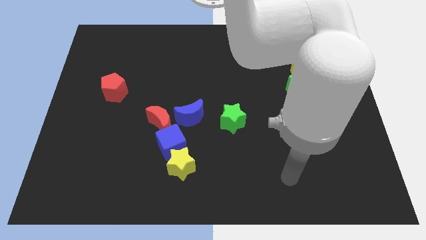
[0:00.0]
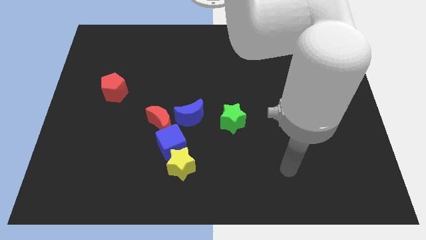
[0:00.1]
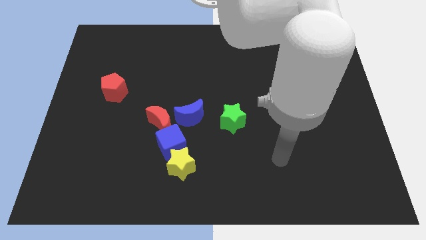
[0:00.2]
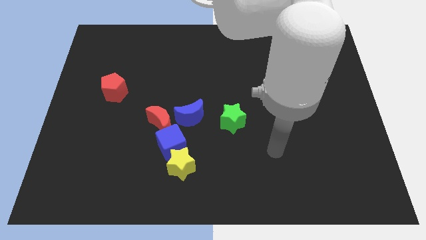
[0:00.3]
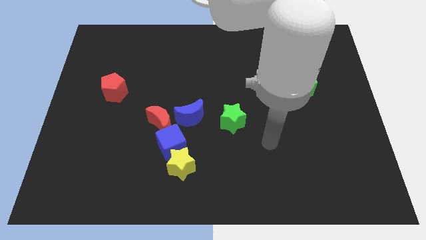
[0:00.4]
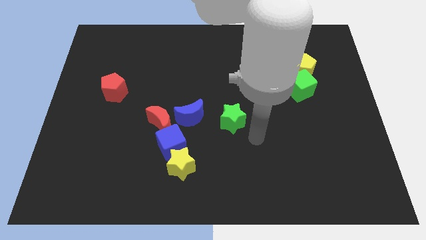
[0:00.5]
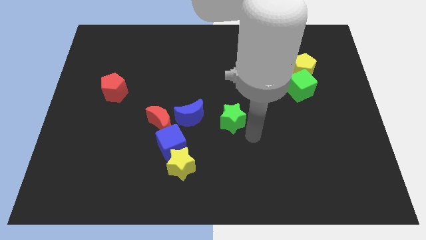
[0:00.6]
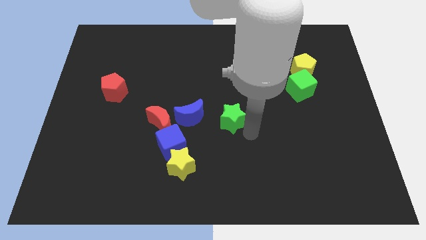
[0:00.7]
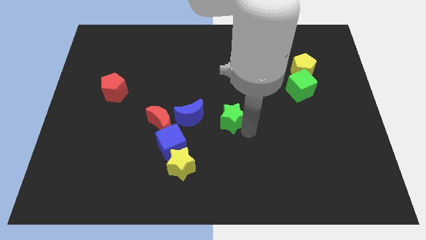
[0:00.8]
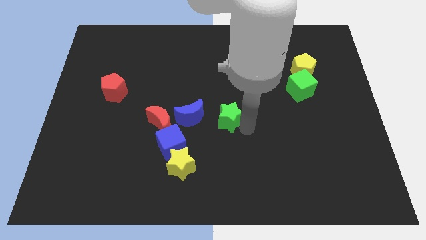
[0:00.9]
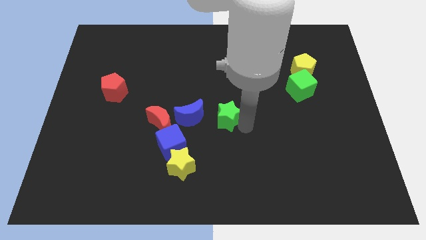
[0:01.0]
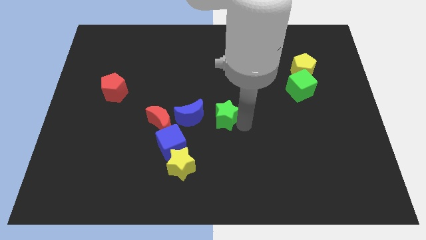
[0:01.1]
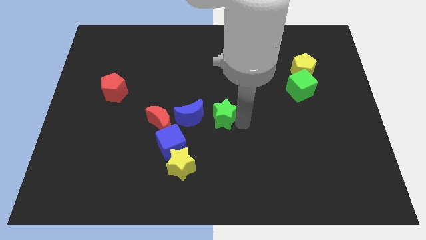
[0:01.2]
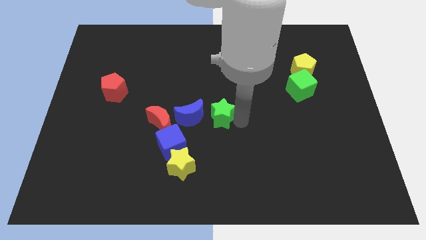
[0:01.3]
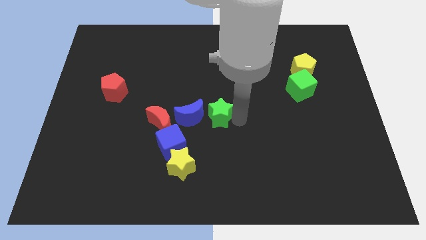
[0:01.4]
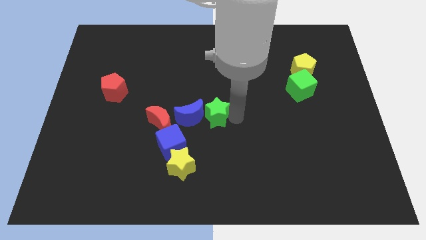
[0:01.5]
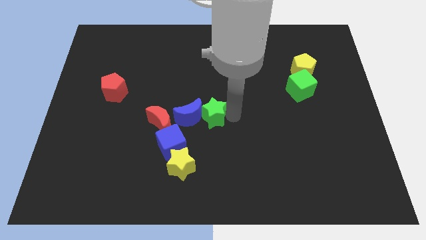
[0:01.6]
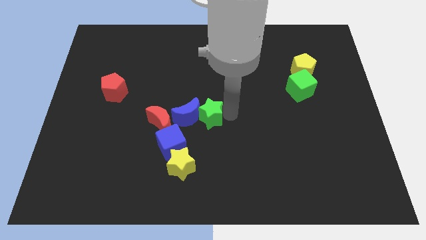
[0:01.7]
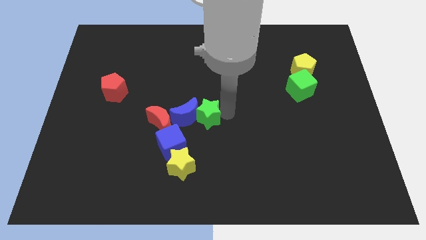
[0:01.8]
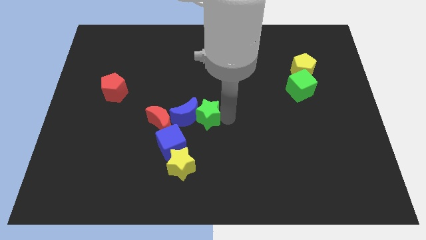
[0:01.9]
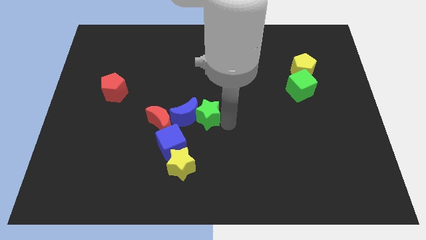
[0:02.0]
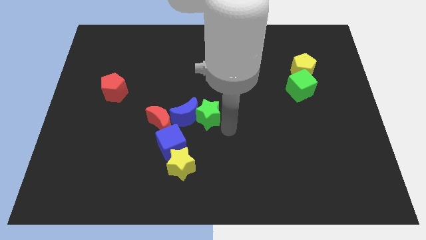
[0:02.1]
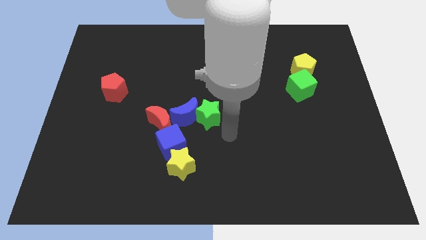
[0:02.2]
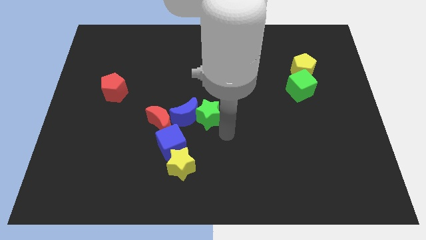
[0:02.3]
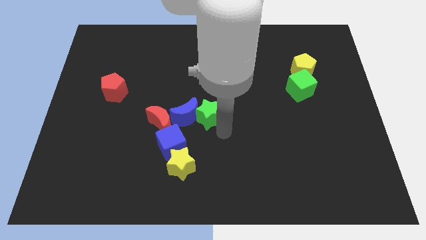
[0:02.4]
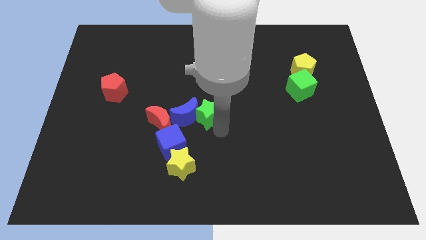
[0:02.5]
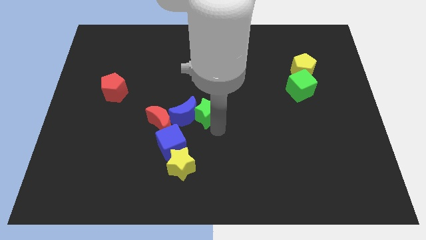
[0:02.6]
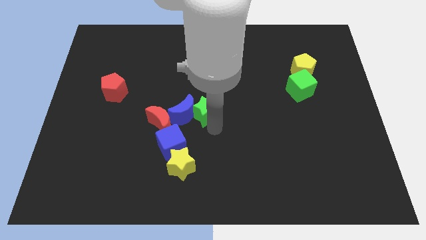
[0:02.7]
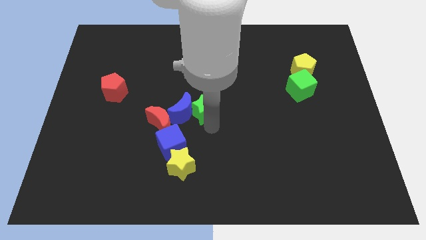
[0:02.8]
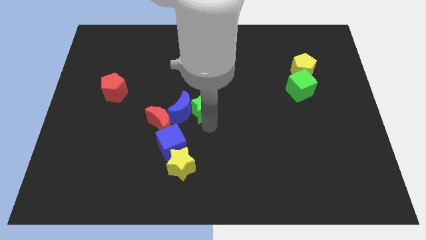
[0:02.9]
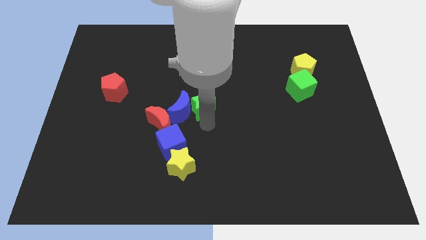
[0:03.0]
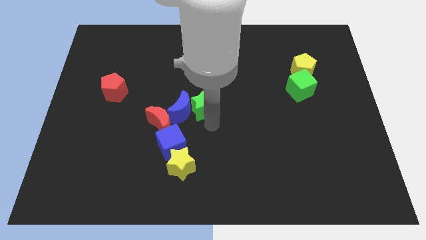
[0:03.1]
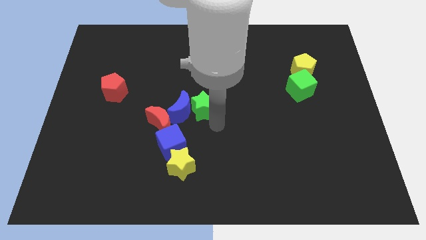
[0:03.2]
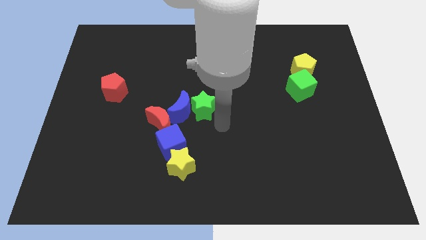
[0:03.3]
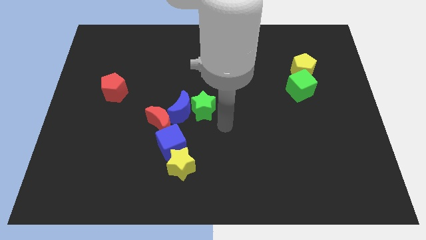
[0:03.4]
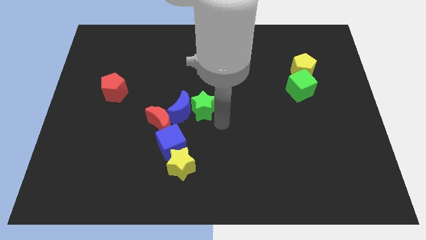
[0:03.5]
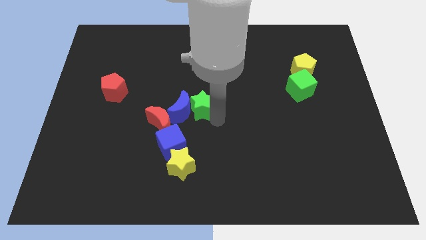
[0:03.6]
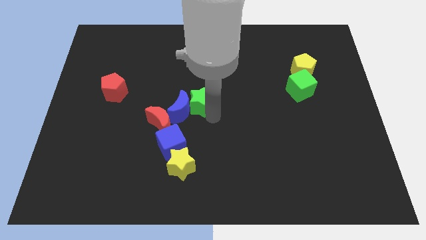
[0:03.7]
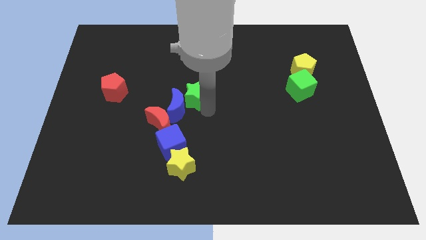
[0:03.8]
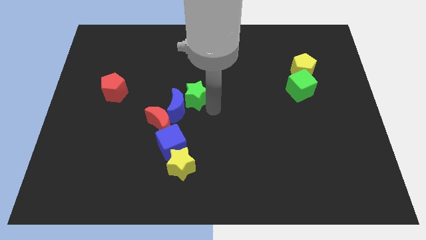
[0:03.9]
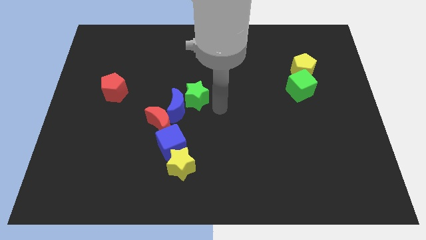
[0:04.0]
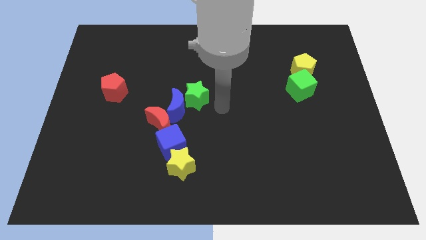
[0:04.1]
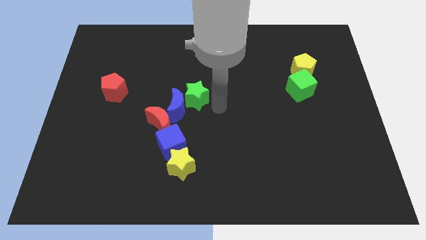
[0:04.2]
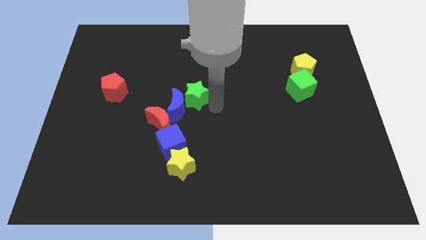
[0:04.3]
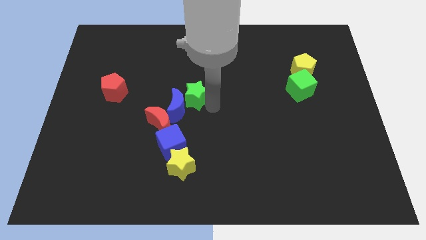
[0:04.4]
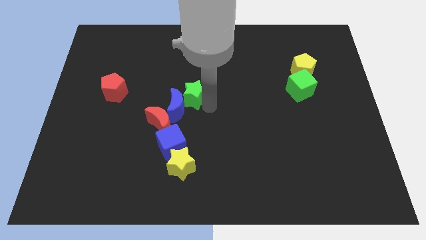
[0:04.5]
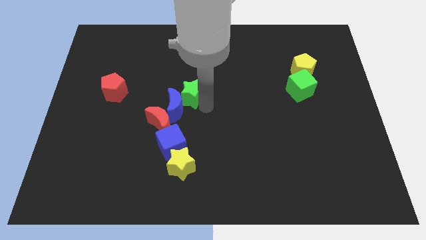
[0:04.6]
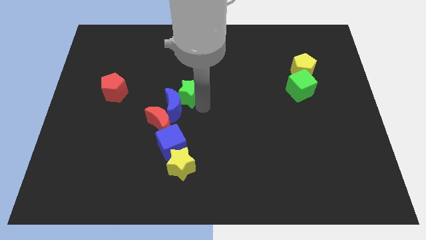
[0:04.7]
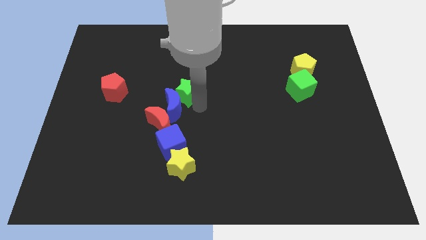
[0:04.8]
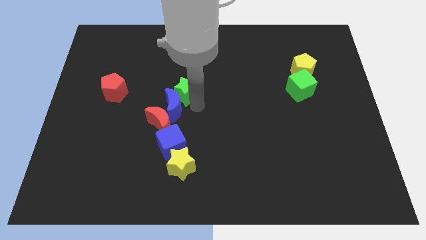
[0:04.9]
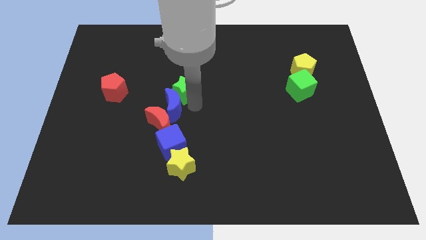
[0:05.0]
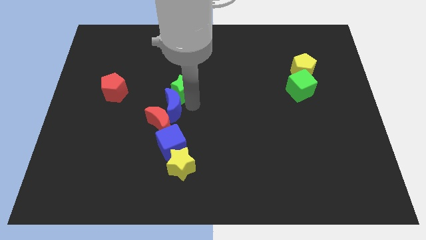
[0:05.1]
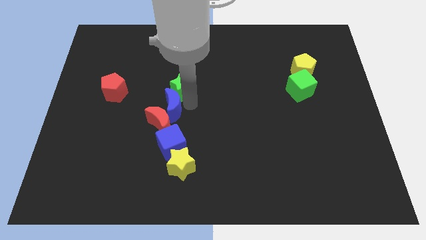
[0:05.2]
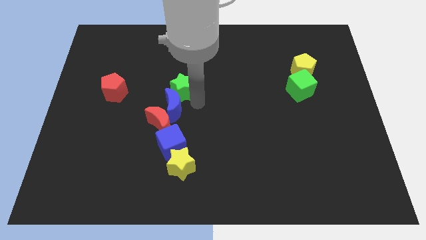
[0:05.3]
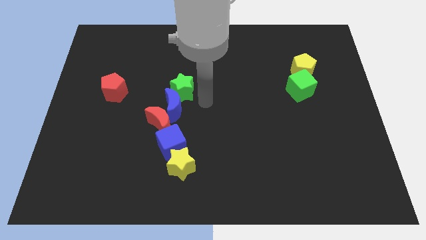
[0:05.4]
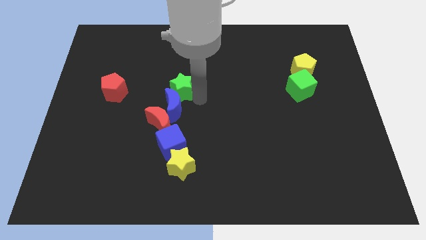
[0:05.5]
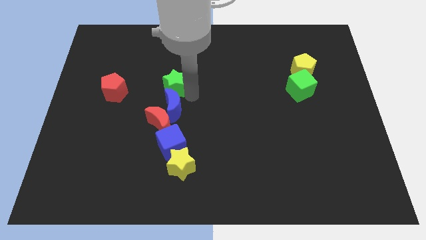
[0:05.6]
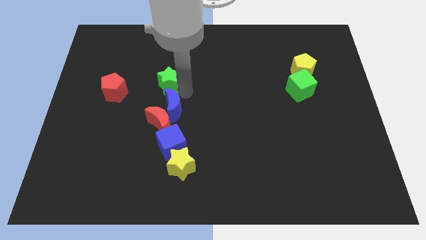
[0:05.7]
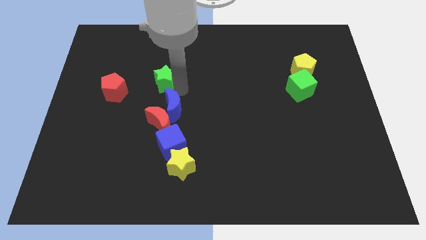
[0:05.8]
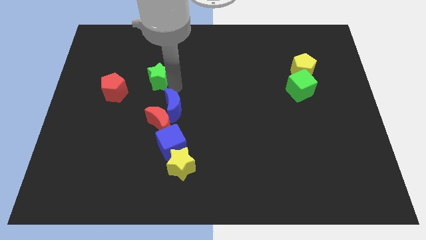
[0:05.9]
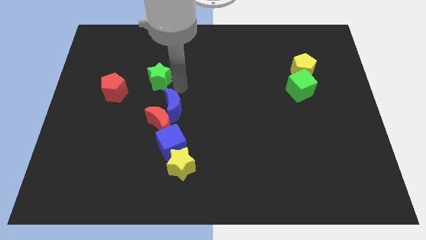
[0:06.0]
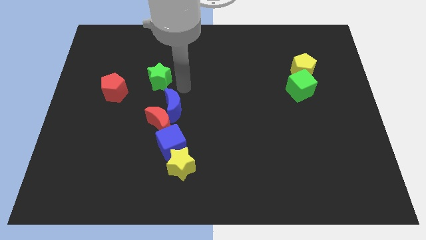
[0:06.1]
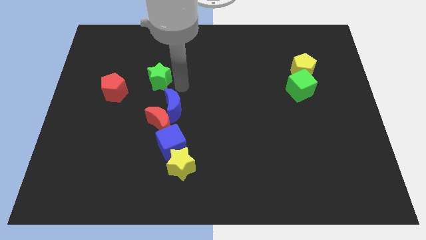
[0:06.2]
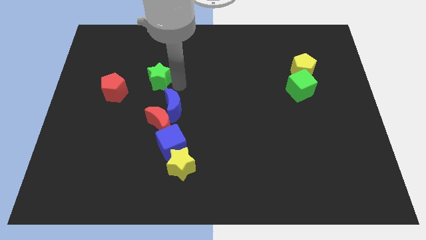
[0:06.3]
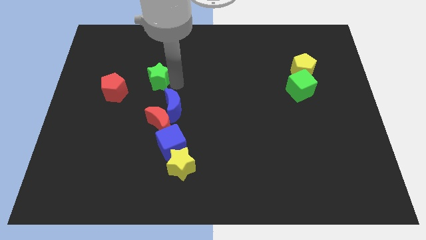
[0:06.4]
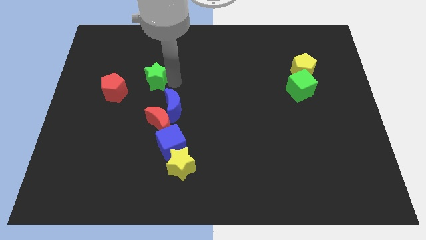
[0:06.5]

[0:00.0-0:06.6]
slide the green star to the top right side of the red pentagon

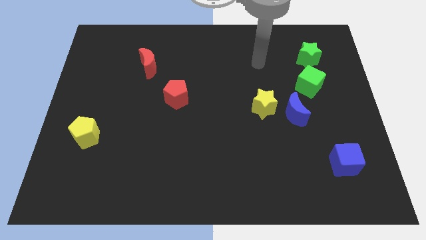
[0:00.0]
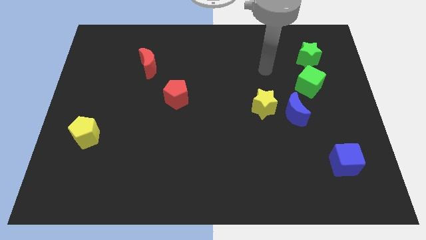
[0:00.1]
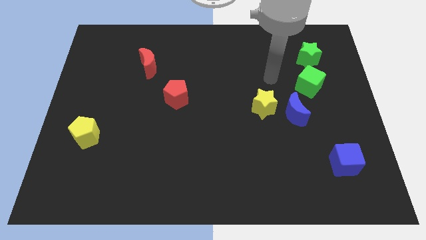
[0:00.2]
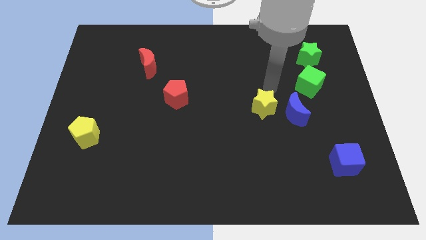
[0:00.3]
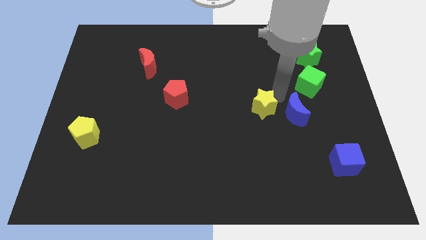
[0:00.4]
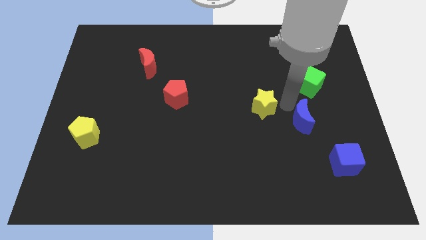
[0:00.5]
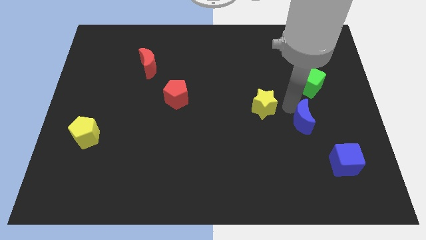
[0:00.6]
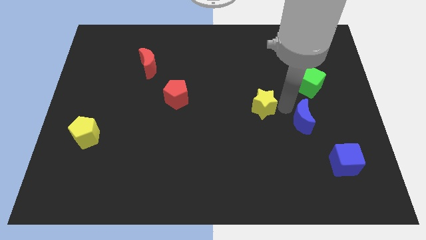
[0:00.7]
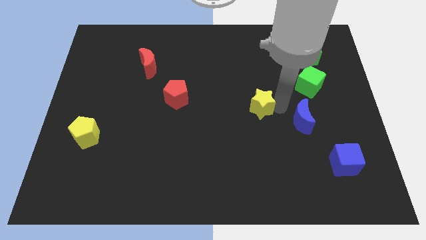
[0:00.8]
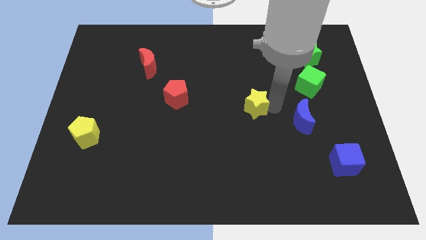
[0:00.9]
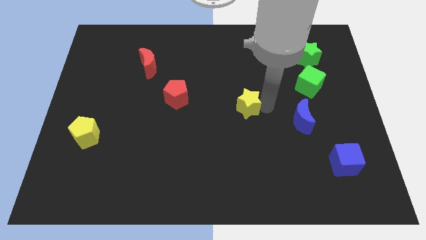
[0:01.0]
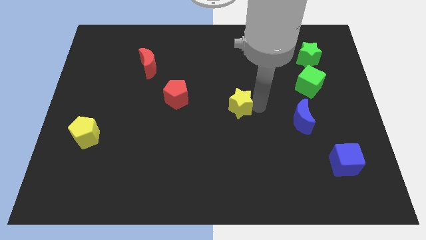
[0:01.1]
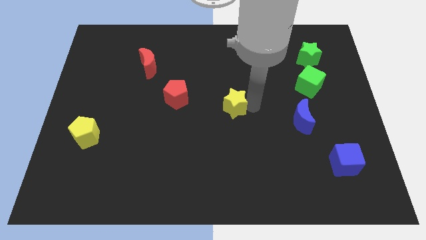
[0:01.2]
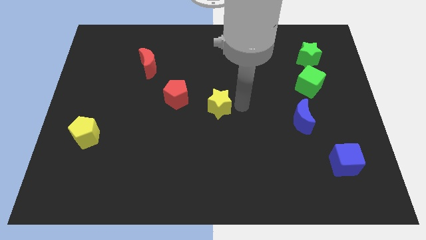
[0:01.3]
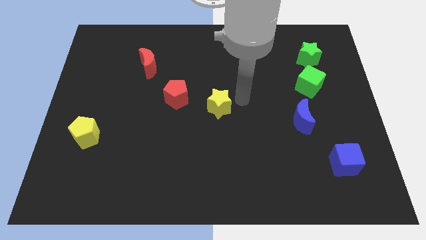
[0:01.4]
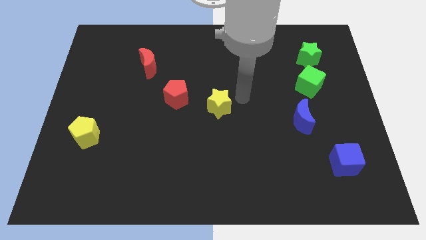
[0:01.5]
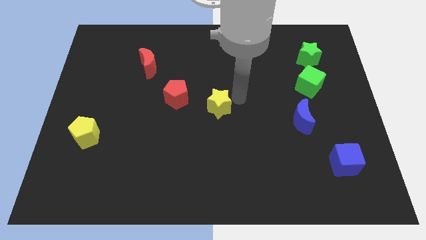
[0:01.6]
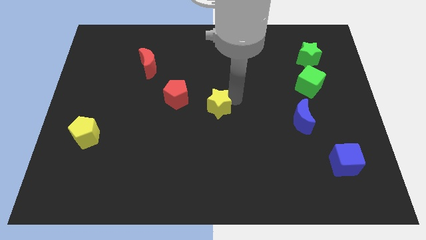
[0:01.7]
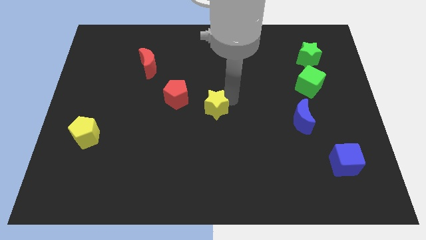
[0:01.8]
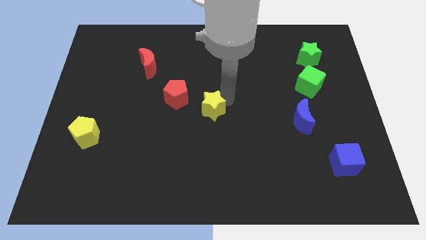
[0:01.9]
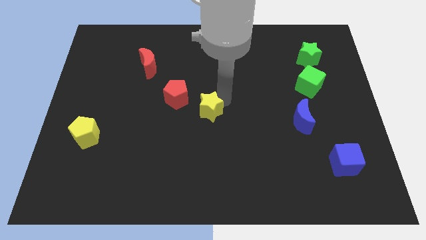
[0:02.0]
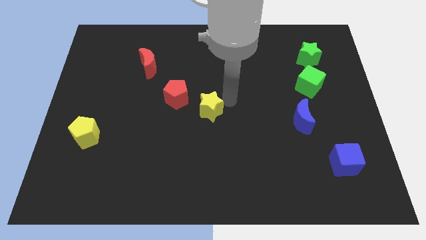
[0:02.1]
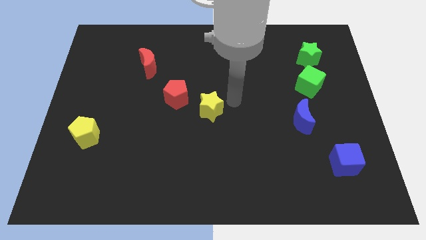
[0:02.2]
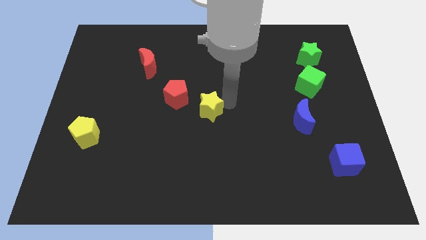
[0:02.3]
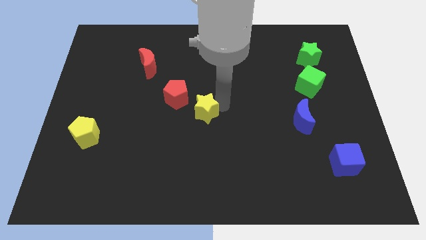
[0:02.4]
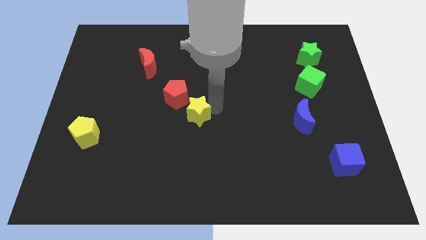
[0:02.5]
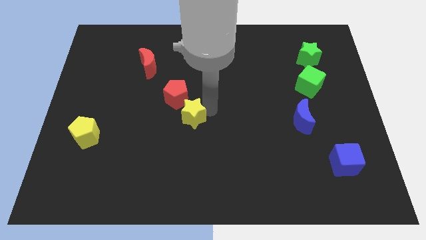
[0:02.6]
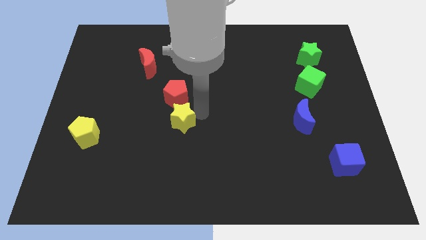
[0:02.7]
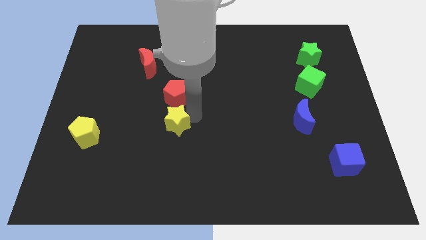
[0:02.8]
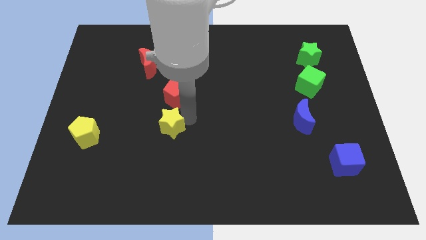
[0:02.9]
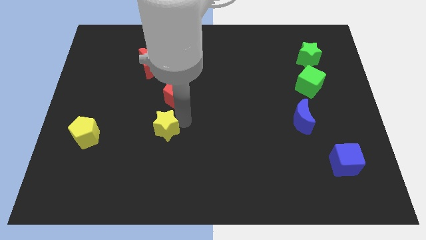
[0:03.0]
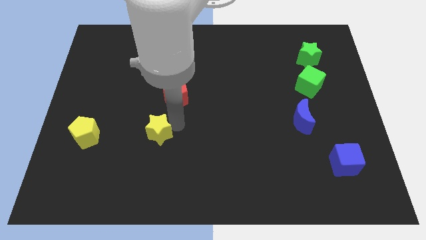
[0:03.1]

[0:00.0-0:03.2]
move the yellow star right of the yellow pentagon
